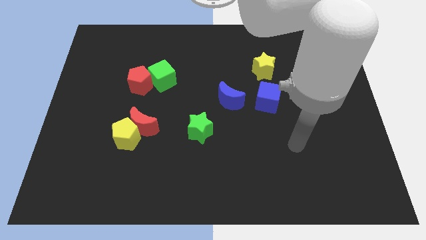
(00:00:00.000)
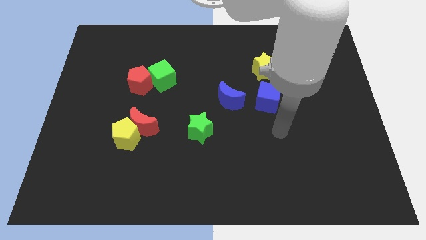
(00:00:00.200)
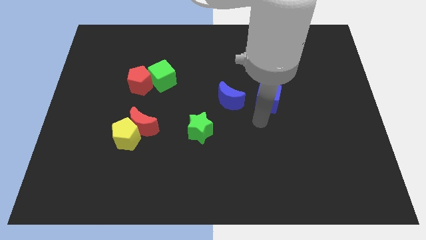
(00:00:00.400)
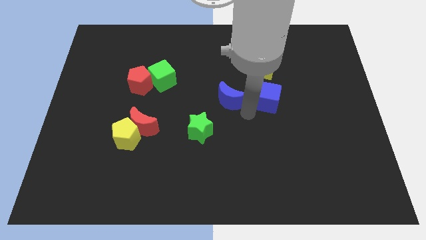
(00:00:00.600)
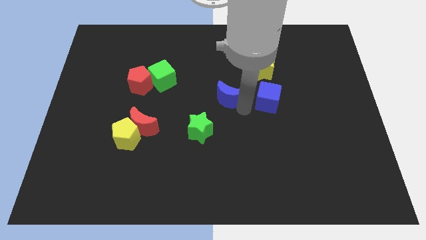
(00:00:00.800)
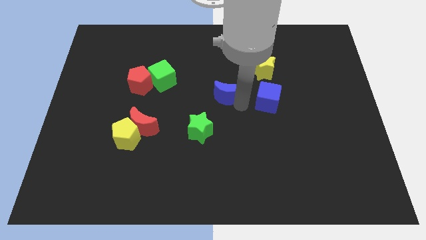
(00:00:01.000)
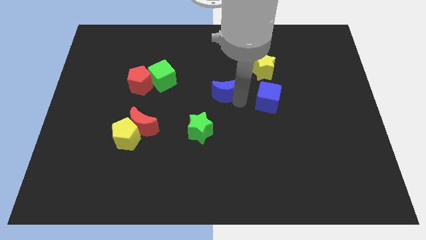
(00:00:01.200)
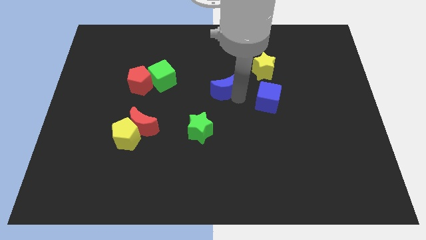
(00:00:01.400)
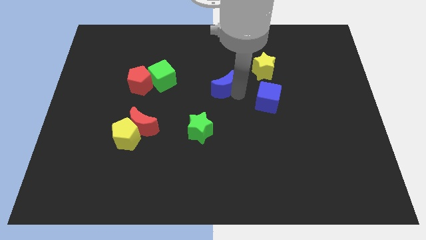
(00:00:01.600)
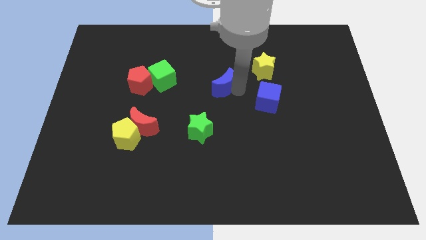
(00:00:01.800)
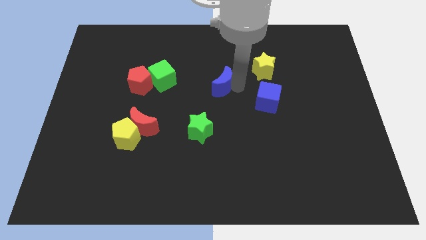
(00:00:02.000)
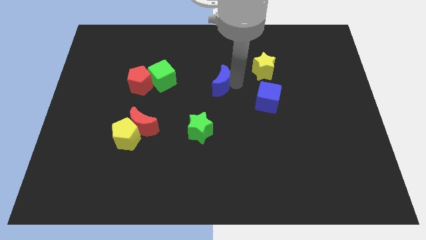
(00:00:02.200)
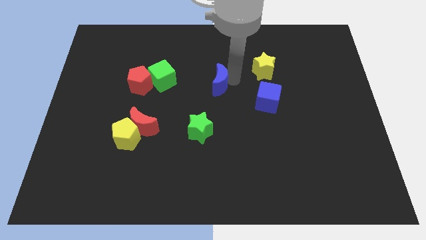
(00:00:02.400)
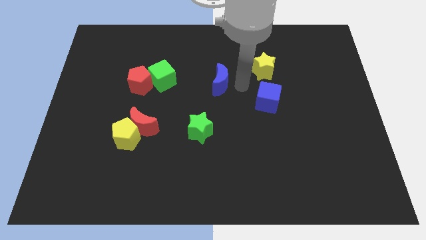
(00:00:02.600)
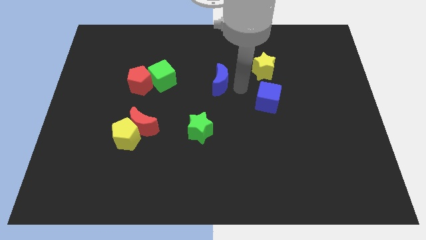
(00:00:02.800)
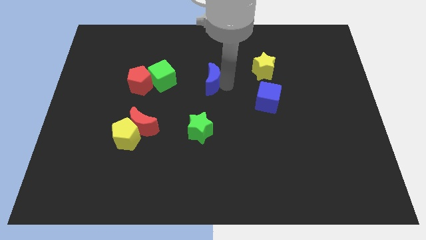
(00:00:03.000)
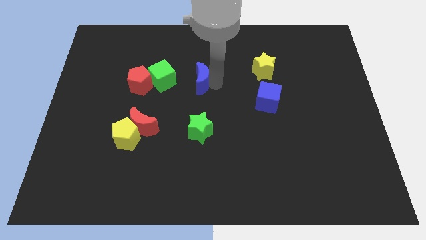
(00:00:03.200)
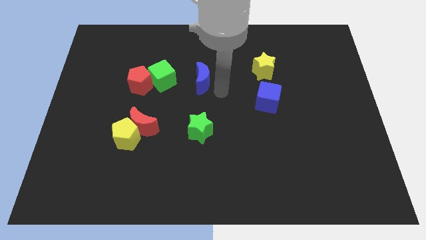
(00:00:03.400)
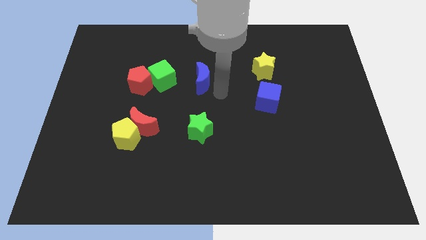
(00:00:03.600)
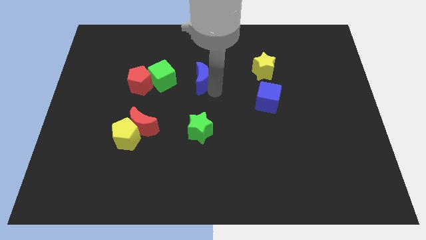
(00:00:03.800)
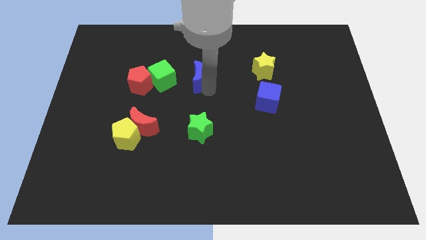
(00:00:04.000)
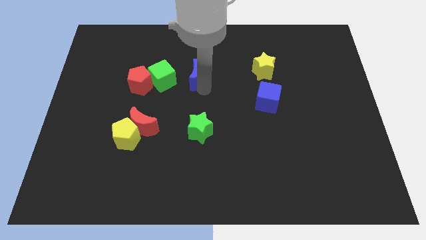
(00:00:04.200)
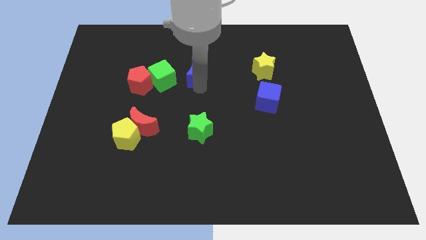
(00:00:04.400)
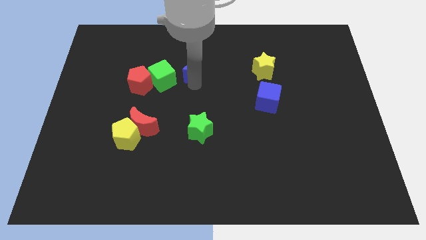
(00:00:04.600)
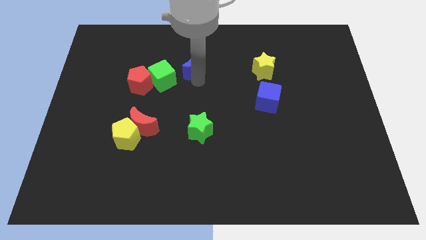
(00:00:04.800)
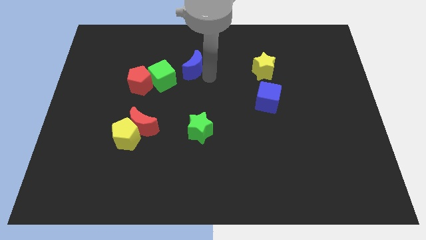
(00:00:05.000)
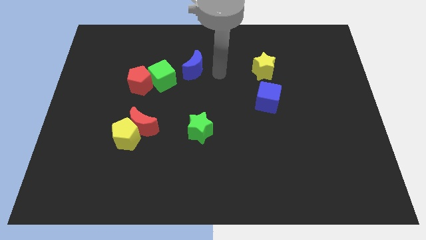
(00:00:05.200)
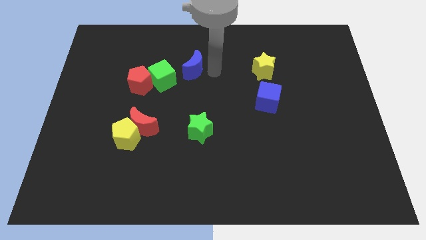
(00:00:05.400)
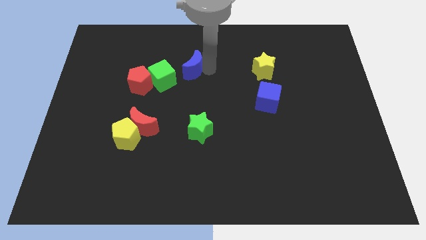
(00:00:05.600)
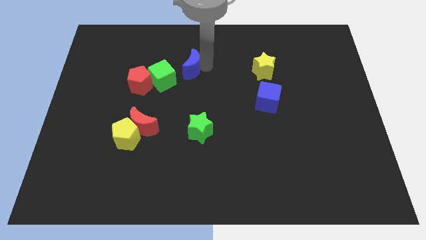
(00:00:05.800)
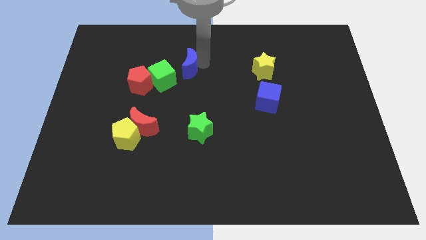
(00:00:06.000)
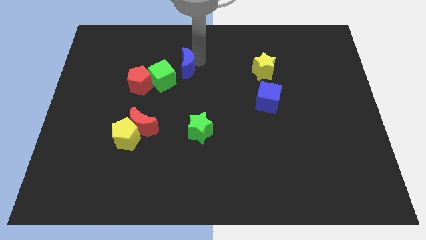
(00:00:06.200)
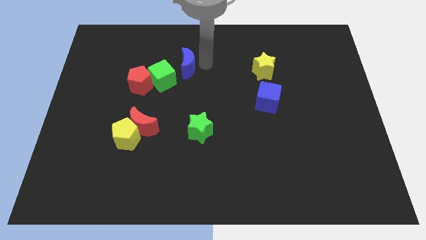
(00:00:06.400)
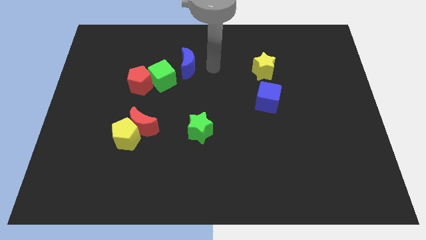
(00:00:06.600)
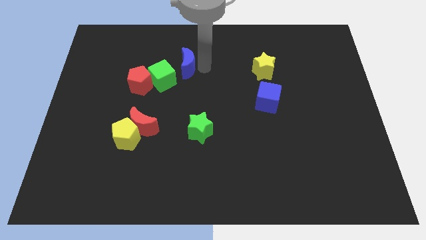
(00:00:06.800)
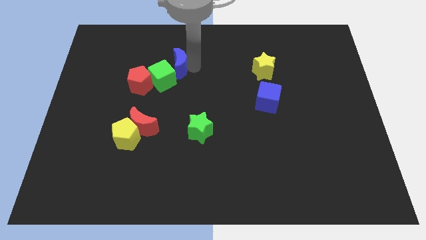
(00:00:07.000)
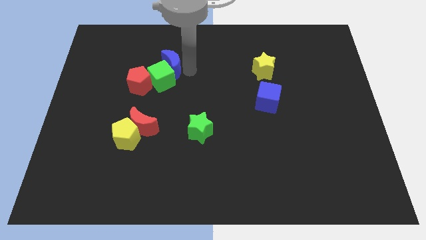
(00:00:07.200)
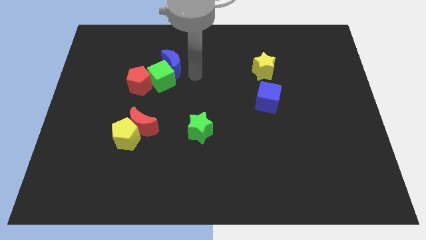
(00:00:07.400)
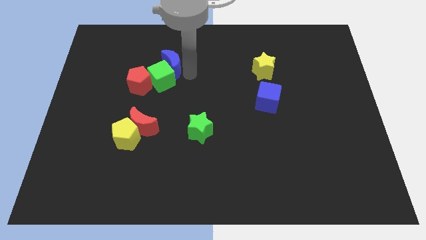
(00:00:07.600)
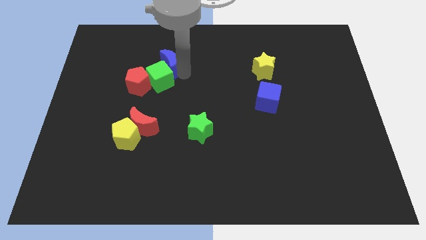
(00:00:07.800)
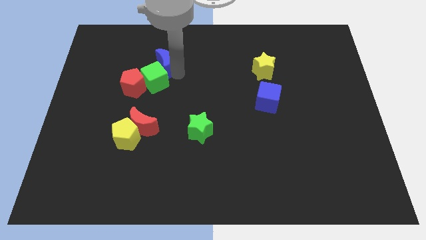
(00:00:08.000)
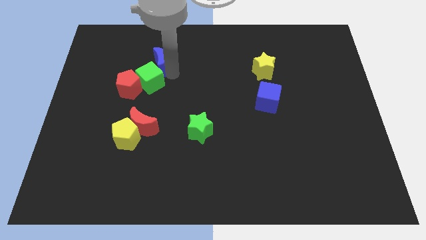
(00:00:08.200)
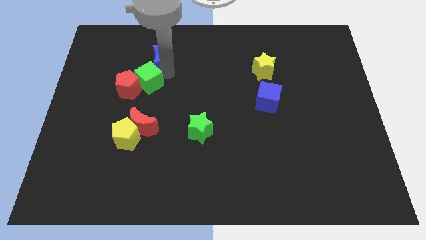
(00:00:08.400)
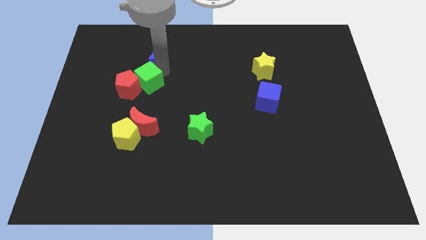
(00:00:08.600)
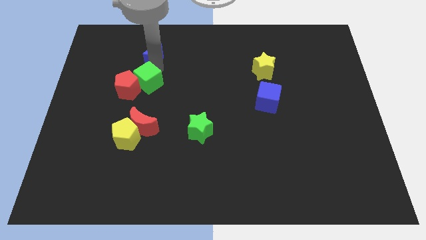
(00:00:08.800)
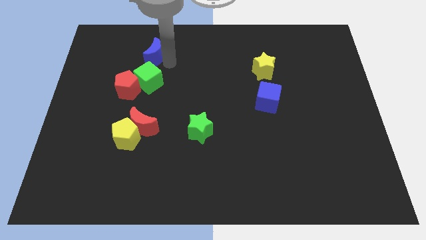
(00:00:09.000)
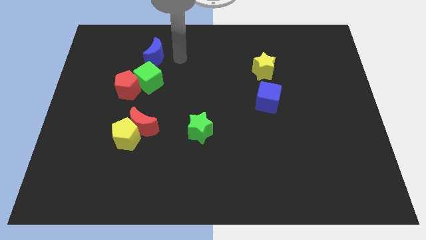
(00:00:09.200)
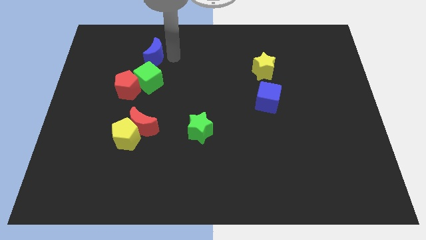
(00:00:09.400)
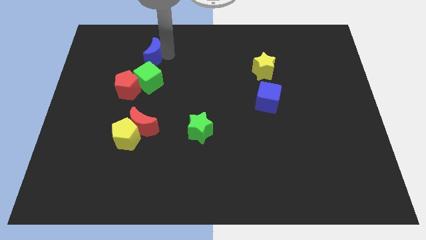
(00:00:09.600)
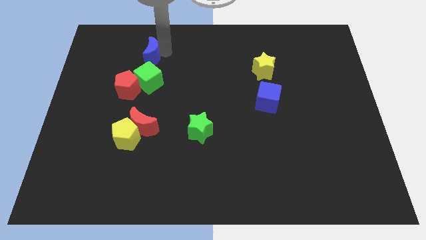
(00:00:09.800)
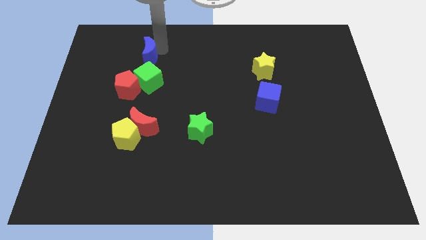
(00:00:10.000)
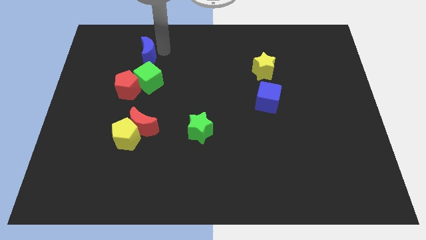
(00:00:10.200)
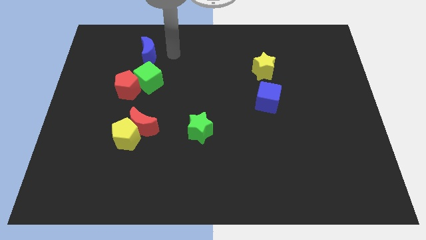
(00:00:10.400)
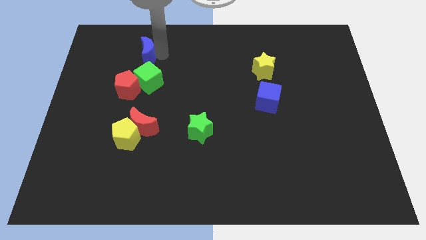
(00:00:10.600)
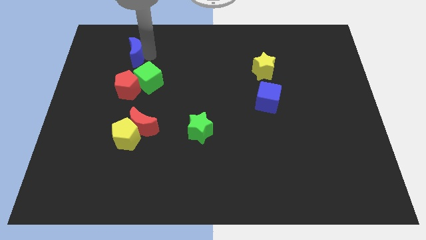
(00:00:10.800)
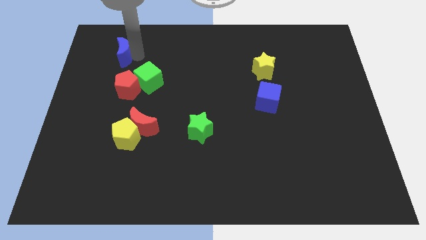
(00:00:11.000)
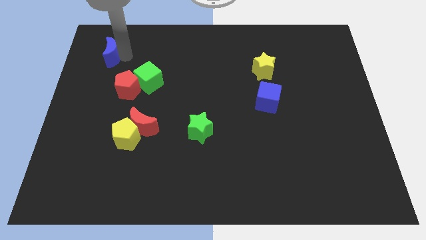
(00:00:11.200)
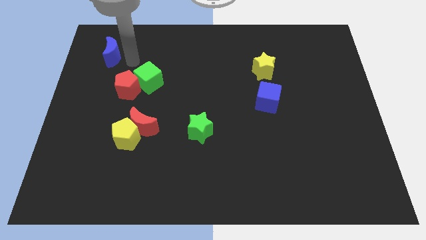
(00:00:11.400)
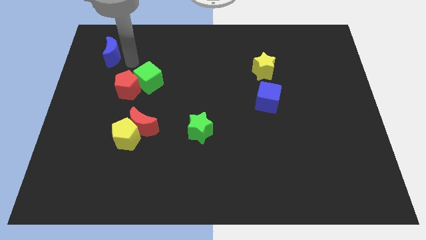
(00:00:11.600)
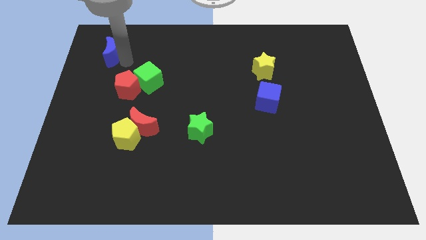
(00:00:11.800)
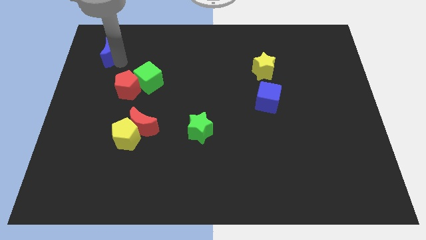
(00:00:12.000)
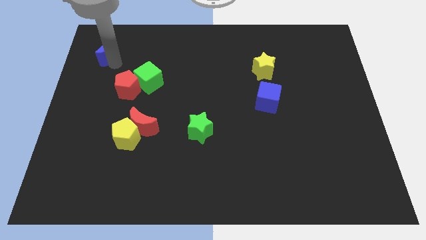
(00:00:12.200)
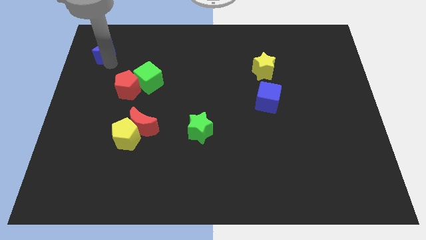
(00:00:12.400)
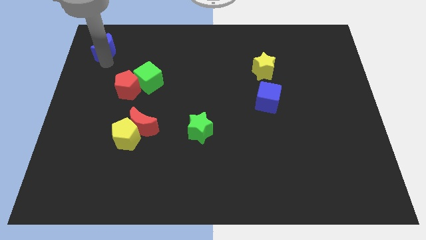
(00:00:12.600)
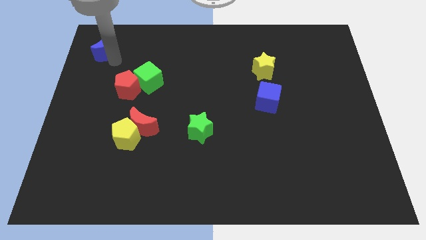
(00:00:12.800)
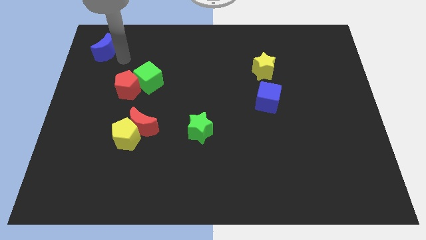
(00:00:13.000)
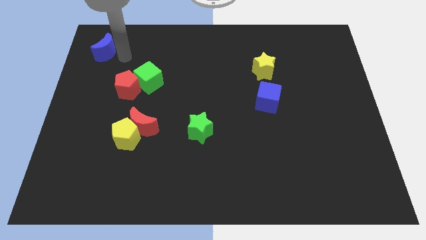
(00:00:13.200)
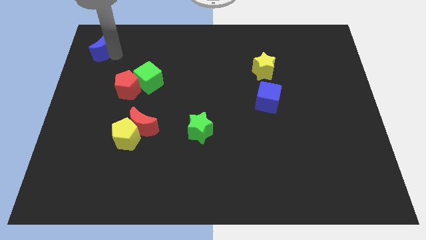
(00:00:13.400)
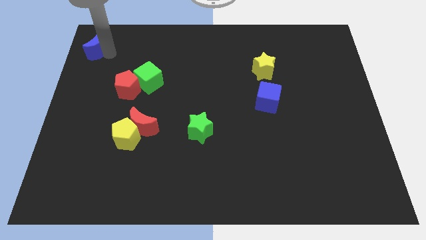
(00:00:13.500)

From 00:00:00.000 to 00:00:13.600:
slide the blue moon to the upper left corner
